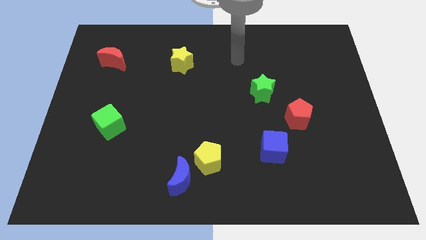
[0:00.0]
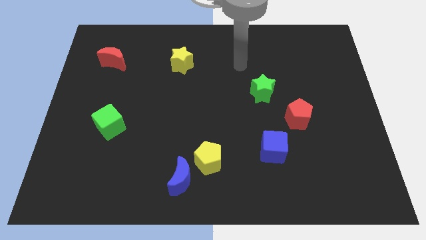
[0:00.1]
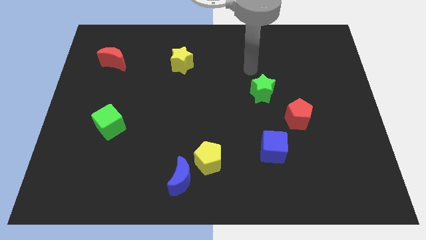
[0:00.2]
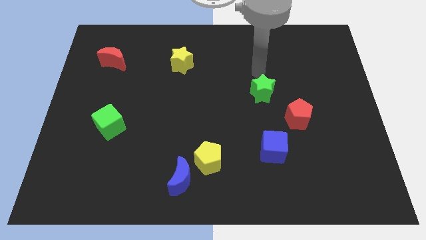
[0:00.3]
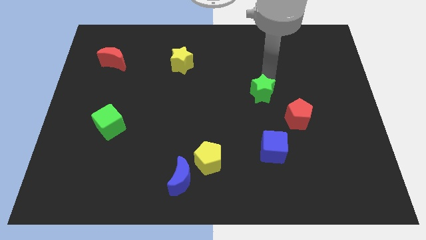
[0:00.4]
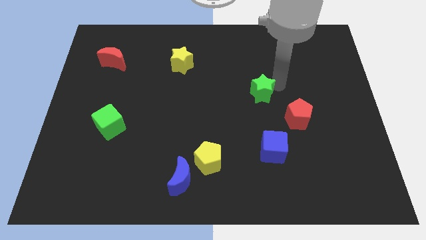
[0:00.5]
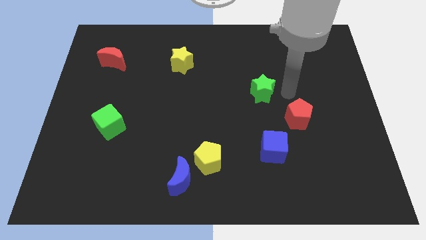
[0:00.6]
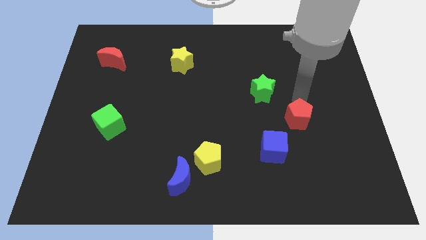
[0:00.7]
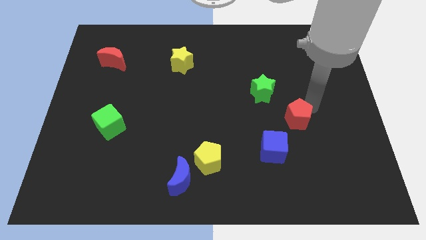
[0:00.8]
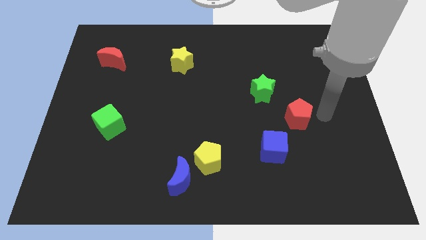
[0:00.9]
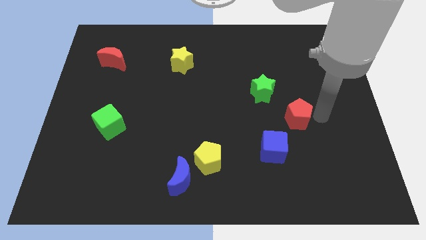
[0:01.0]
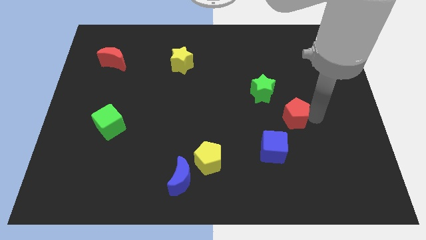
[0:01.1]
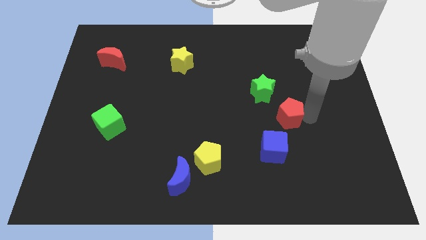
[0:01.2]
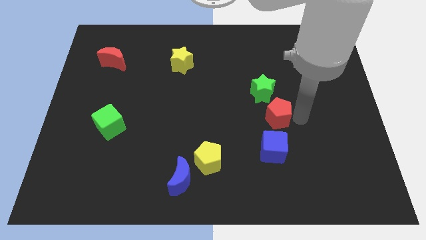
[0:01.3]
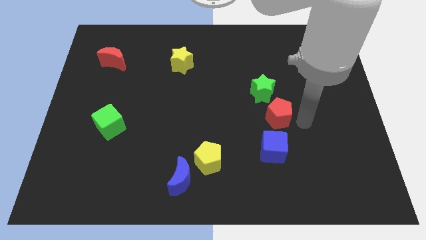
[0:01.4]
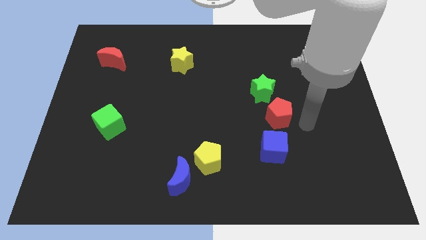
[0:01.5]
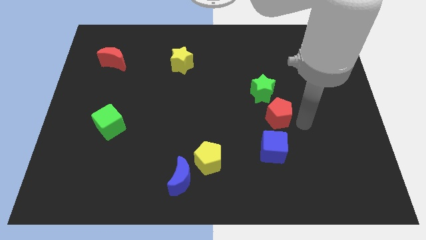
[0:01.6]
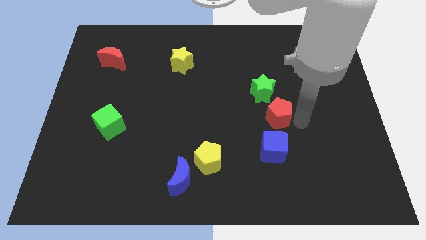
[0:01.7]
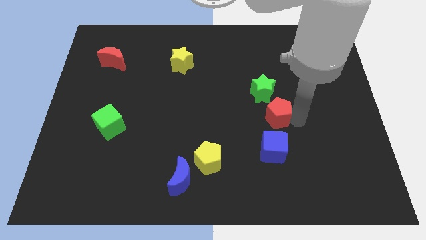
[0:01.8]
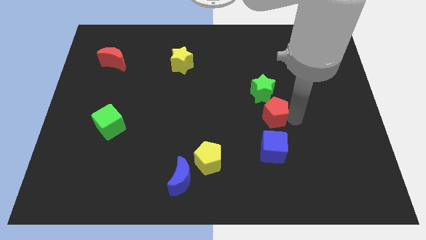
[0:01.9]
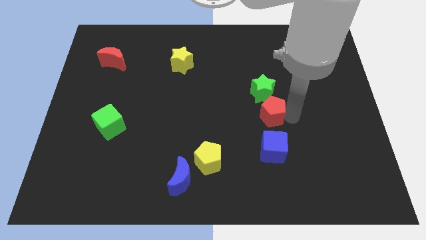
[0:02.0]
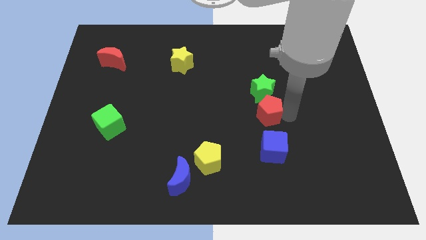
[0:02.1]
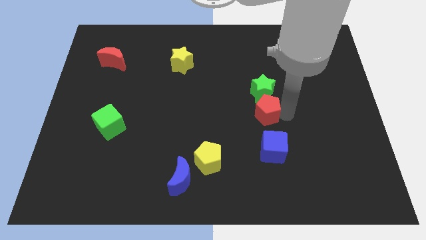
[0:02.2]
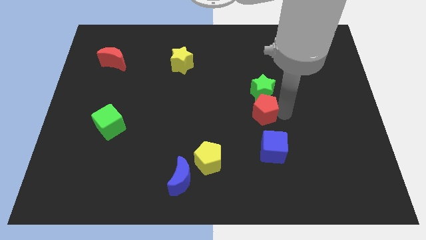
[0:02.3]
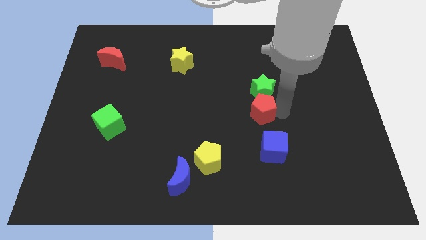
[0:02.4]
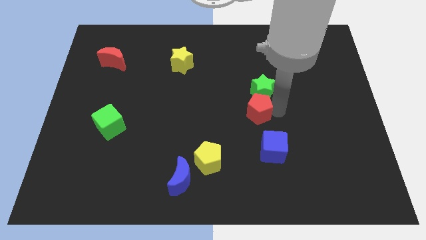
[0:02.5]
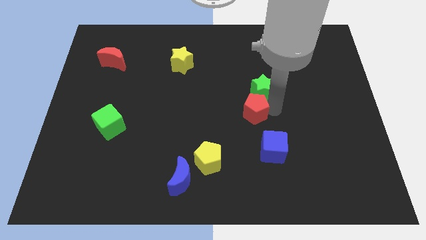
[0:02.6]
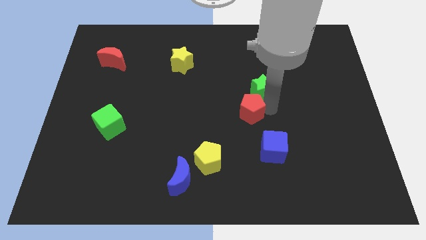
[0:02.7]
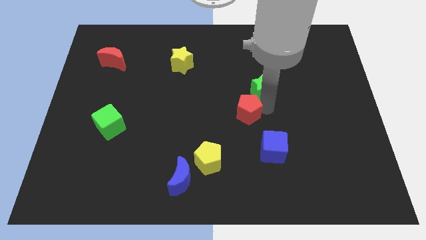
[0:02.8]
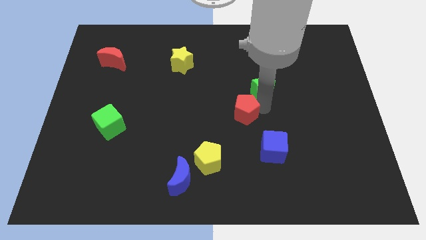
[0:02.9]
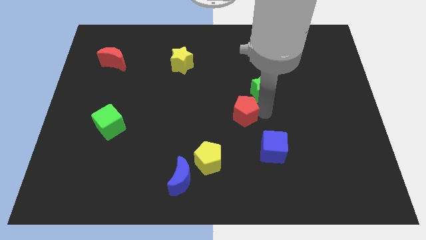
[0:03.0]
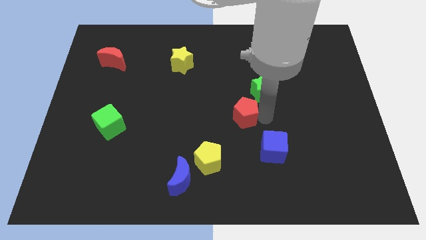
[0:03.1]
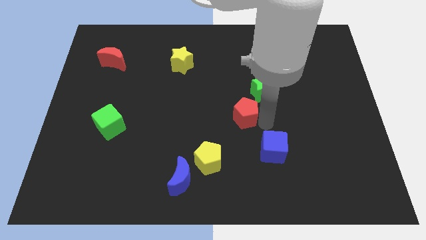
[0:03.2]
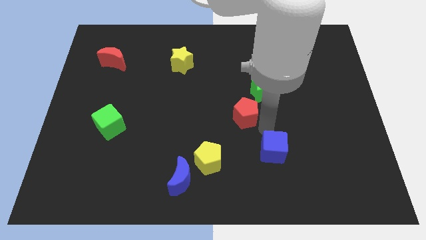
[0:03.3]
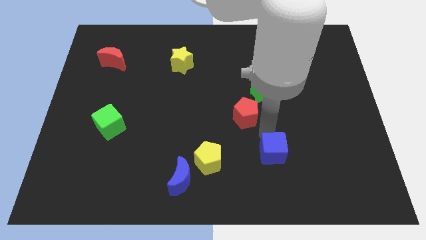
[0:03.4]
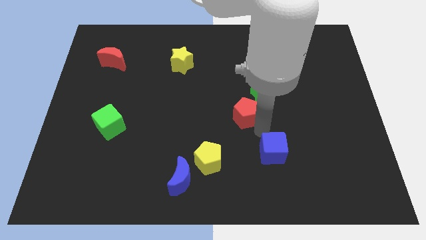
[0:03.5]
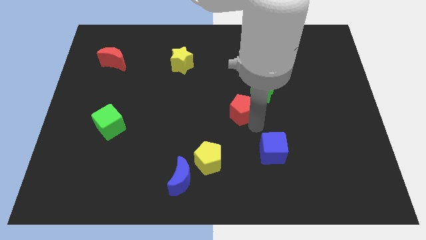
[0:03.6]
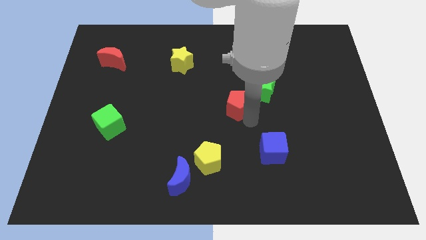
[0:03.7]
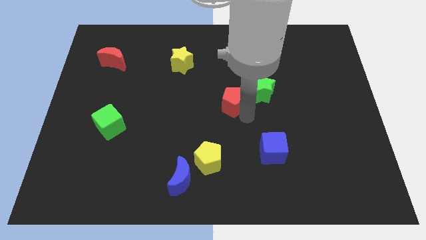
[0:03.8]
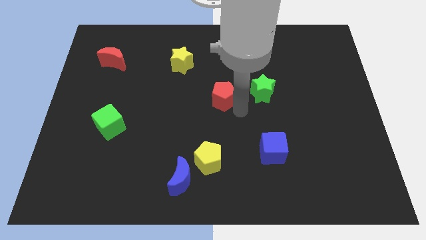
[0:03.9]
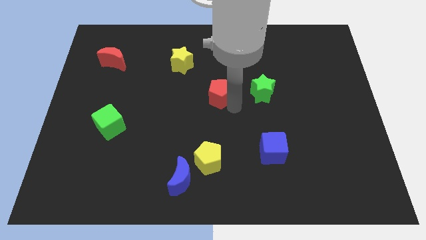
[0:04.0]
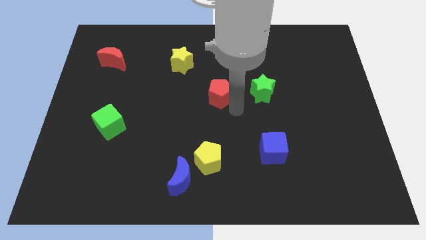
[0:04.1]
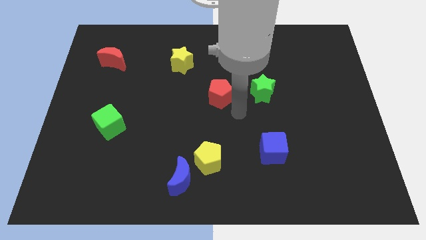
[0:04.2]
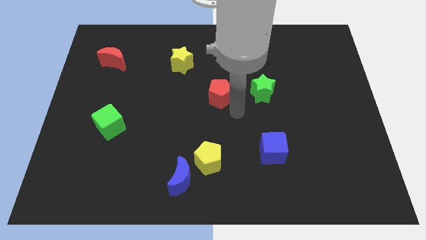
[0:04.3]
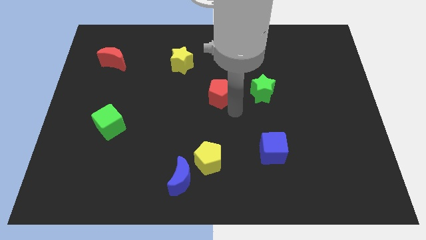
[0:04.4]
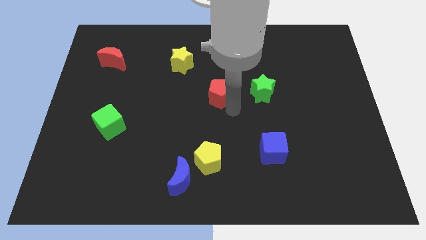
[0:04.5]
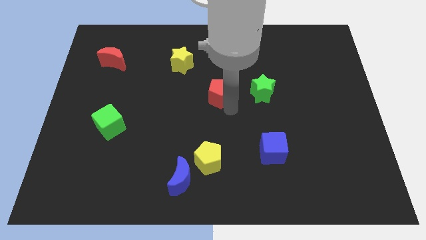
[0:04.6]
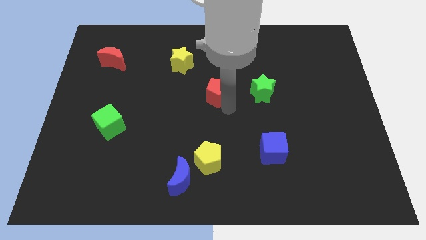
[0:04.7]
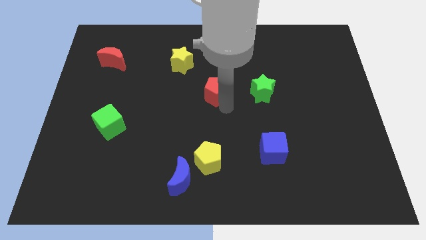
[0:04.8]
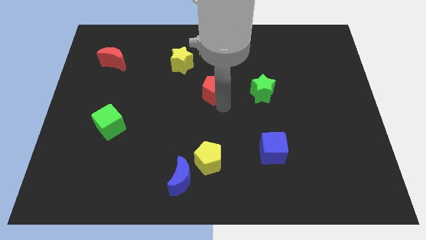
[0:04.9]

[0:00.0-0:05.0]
push the red pentagon to the bottom right of the yellow star

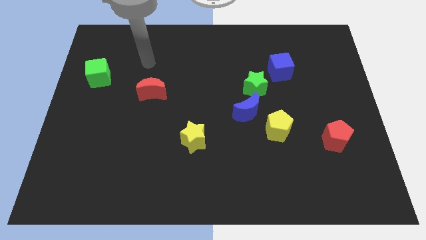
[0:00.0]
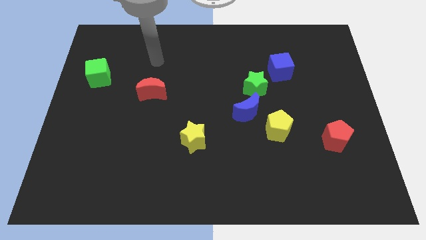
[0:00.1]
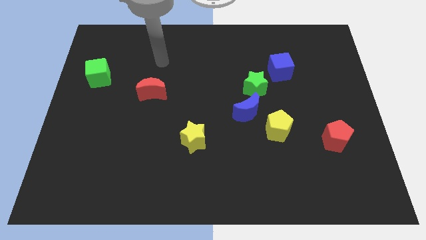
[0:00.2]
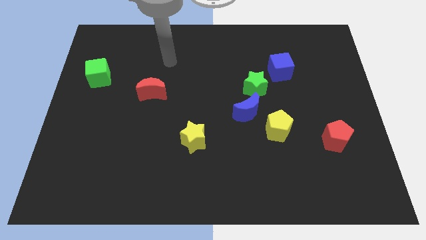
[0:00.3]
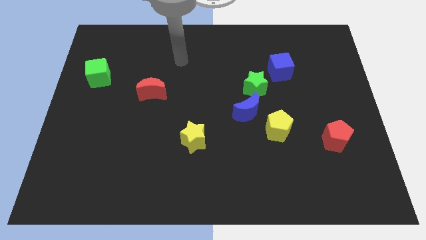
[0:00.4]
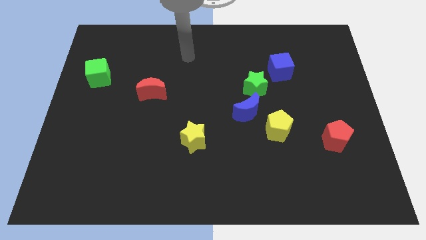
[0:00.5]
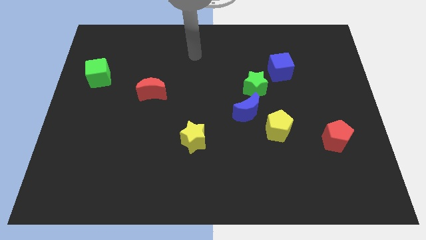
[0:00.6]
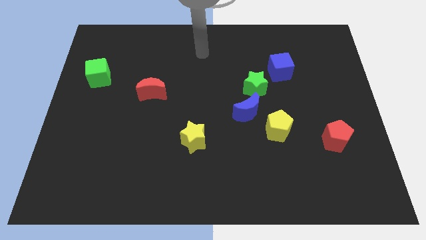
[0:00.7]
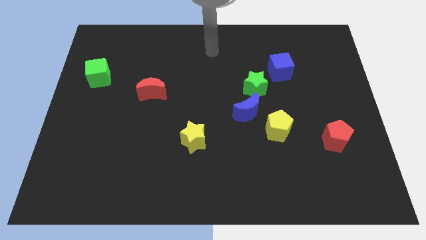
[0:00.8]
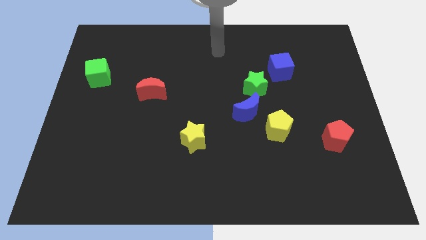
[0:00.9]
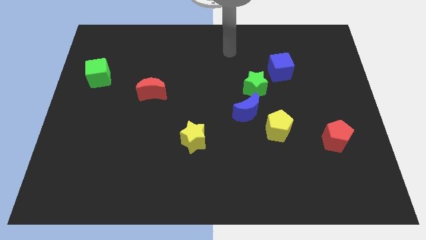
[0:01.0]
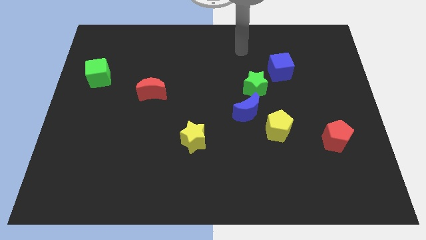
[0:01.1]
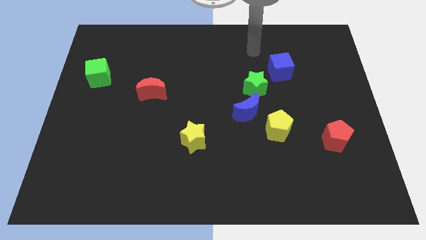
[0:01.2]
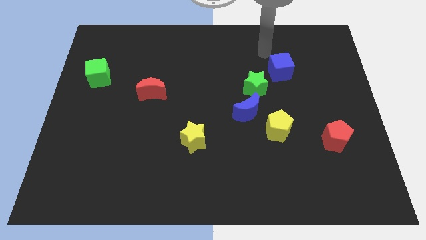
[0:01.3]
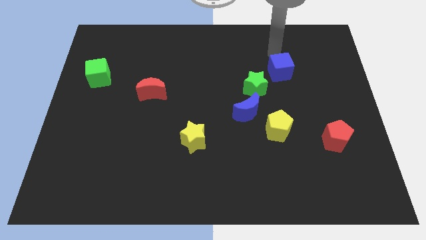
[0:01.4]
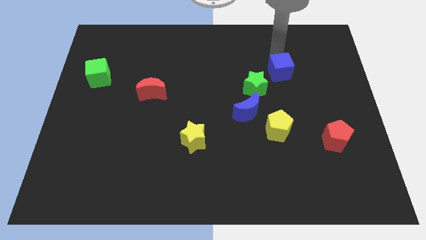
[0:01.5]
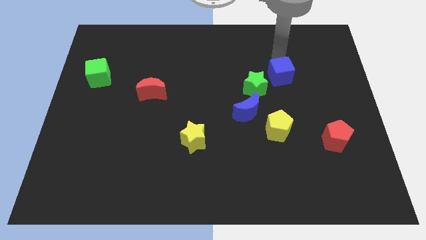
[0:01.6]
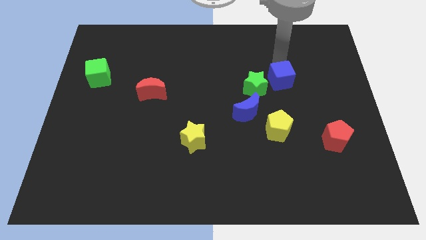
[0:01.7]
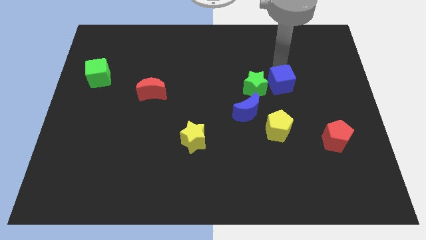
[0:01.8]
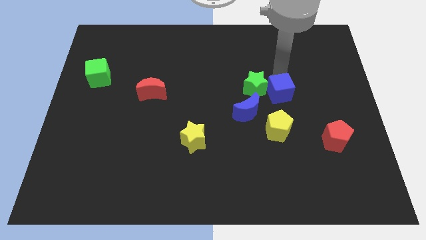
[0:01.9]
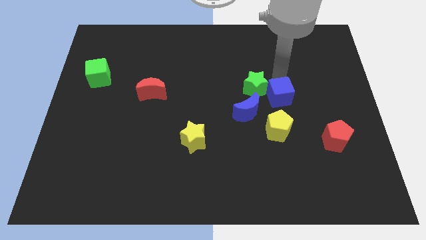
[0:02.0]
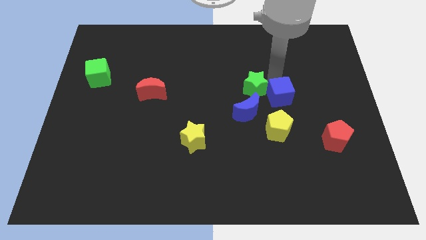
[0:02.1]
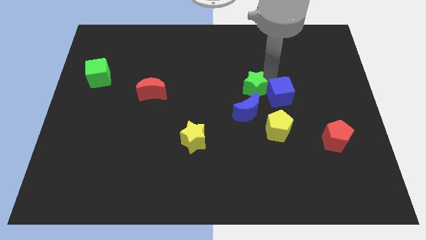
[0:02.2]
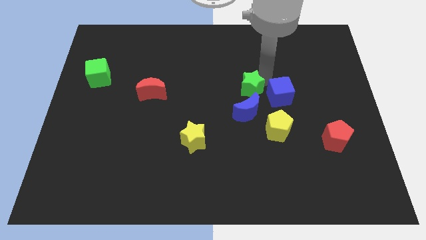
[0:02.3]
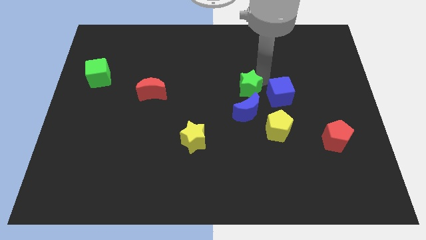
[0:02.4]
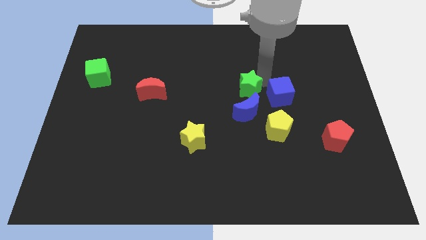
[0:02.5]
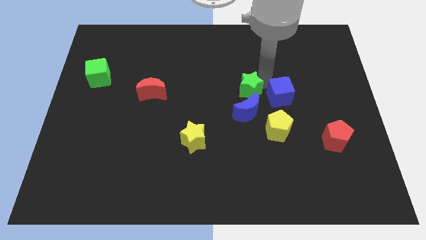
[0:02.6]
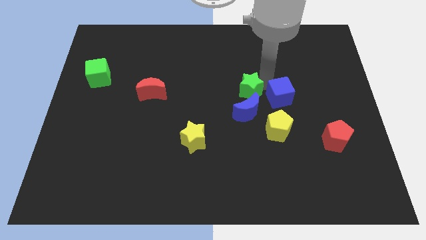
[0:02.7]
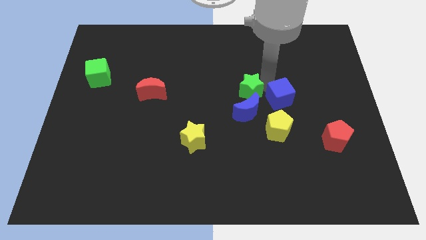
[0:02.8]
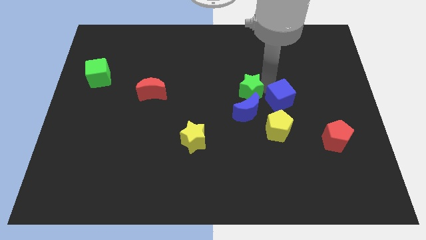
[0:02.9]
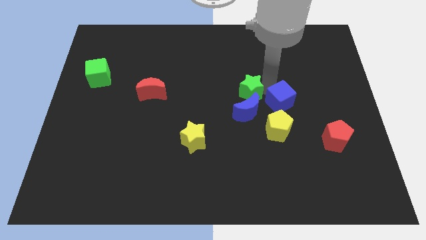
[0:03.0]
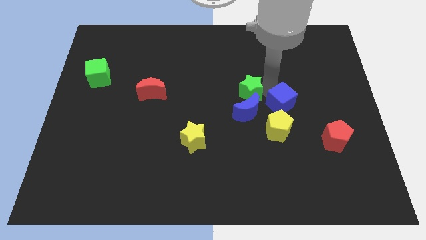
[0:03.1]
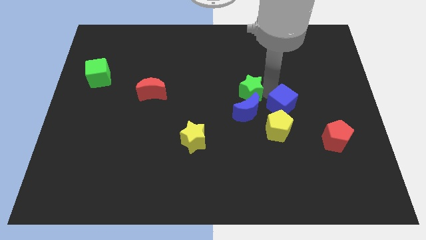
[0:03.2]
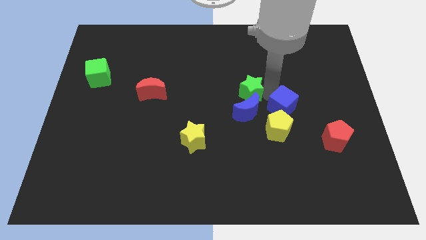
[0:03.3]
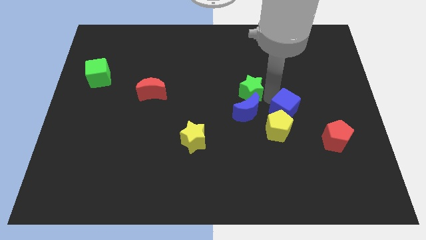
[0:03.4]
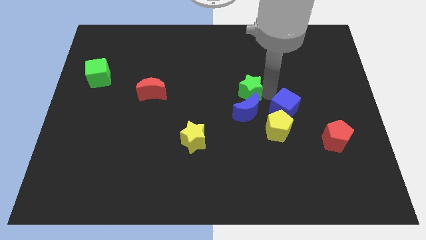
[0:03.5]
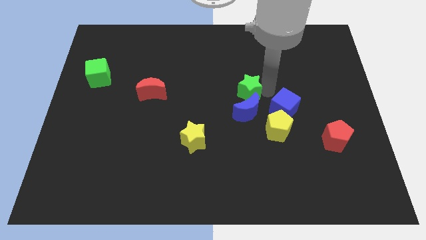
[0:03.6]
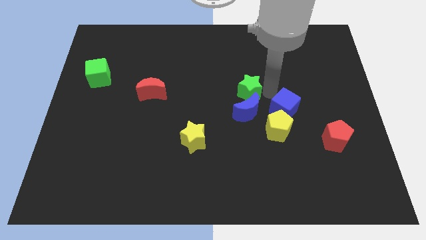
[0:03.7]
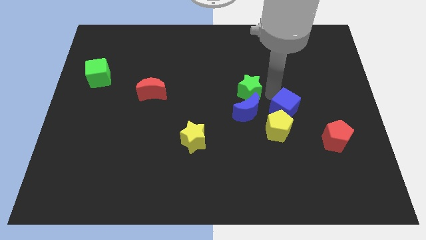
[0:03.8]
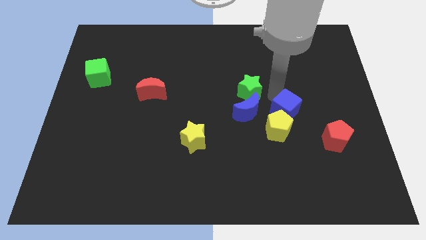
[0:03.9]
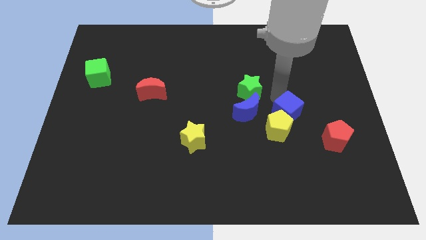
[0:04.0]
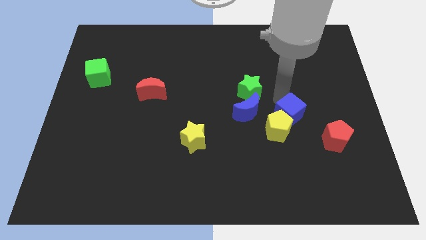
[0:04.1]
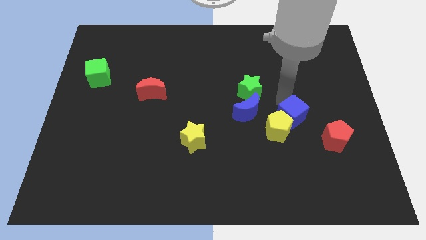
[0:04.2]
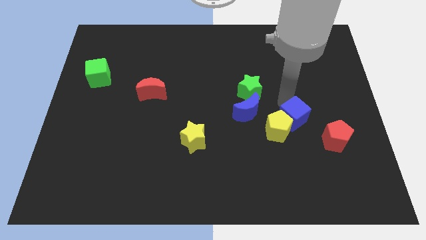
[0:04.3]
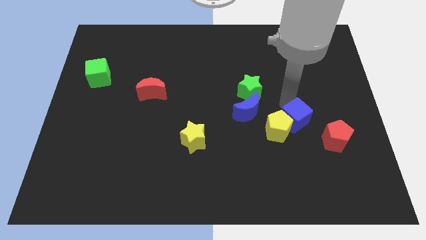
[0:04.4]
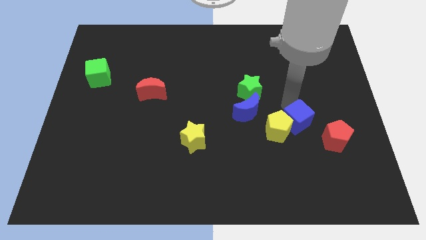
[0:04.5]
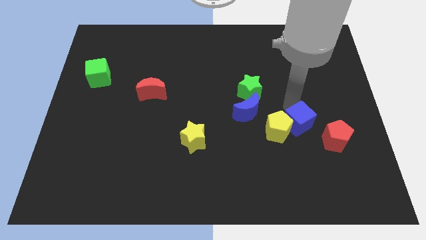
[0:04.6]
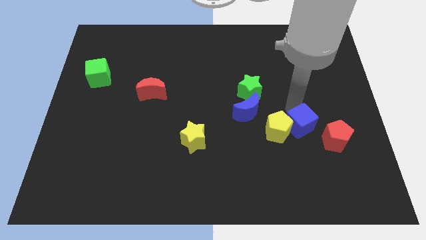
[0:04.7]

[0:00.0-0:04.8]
push the blue cube diagonally down and to the right of the yellow pentagon
